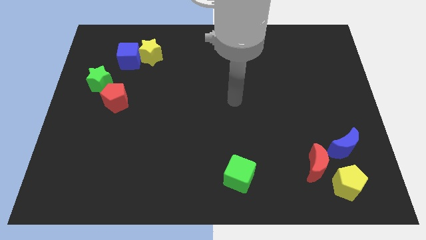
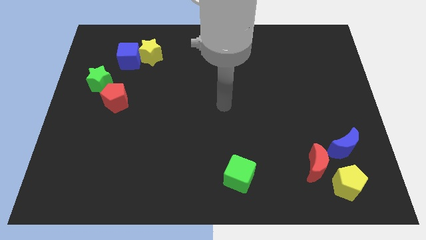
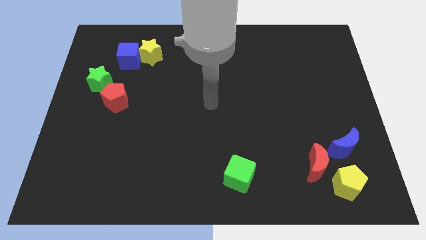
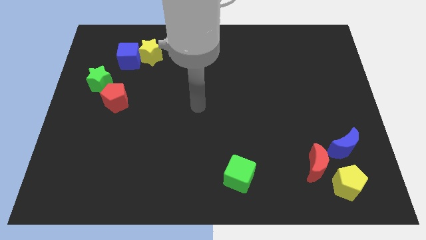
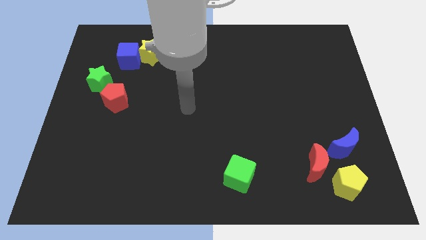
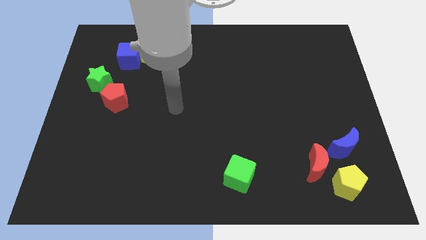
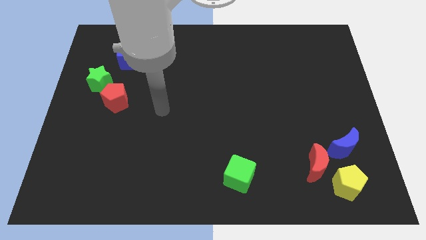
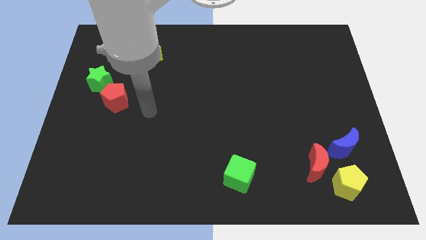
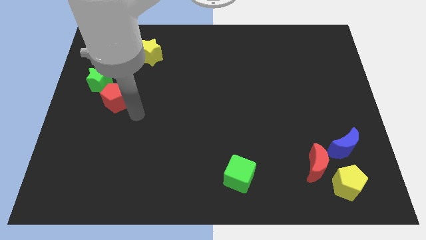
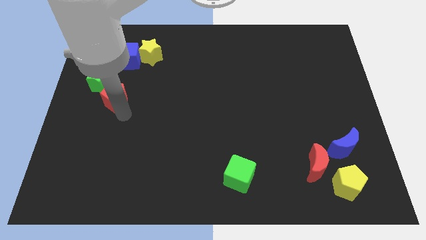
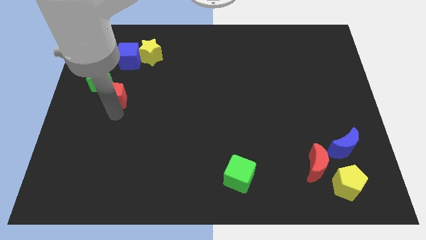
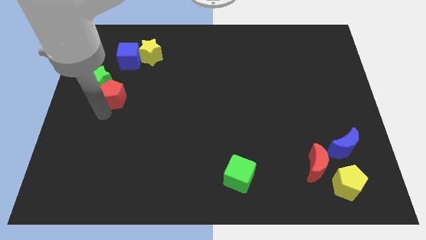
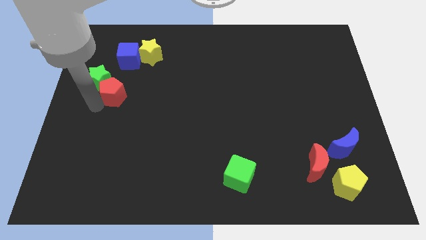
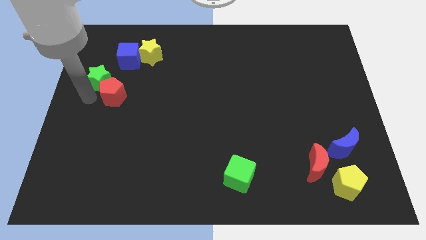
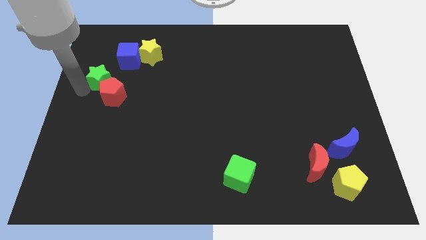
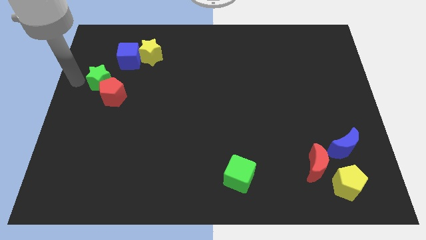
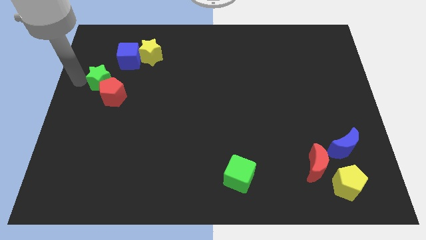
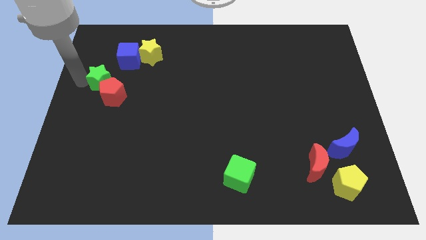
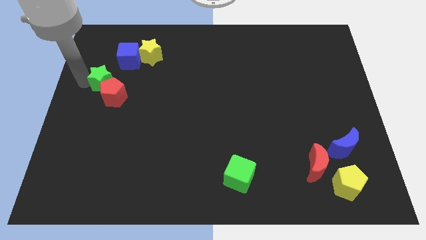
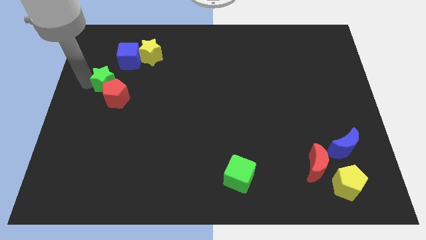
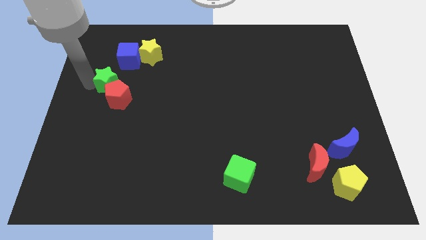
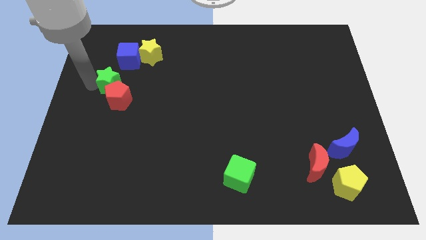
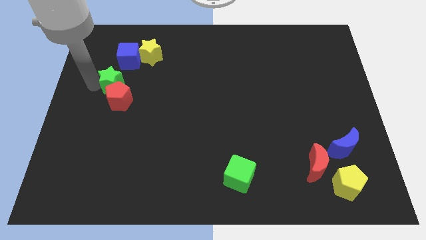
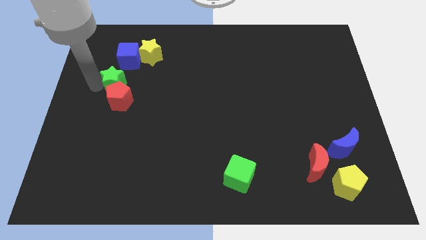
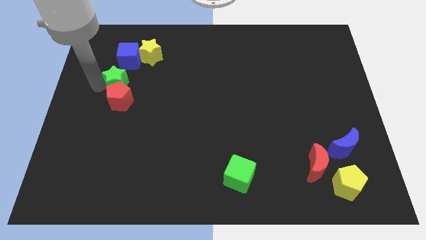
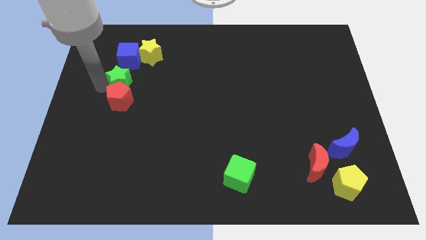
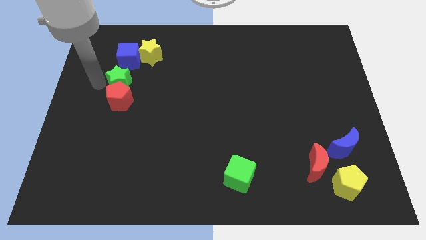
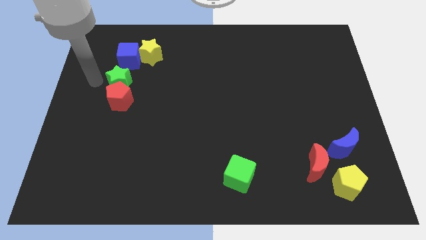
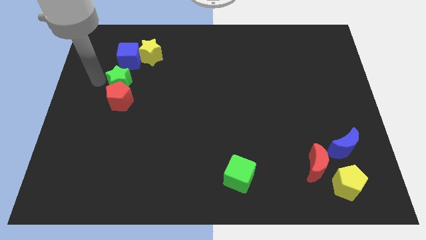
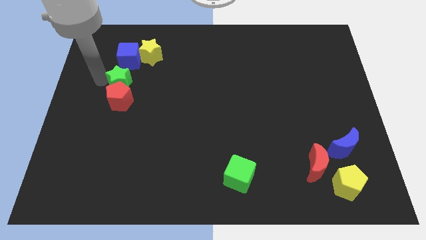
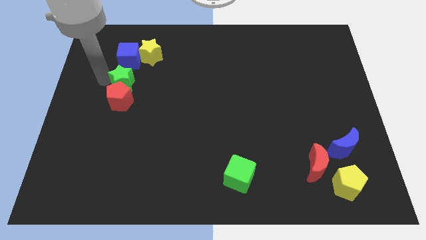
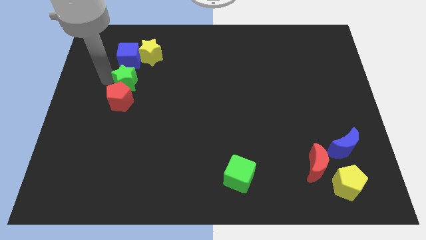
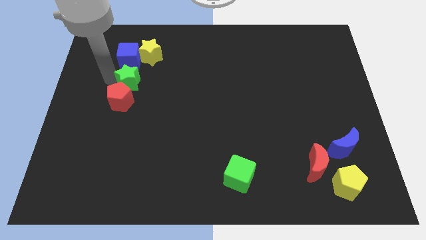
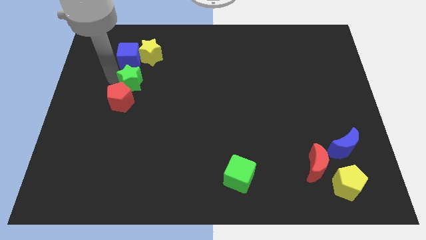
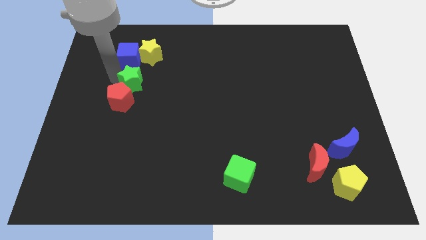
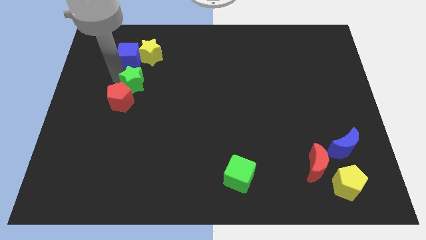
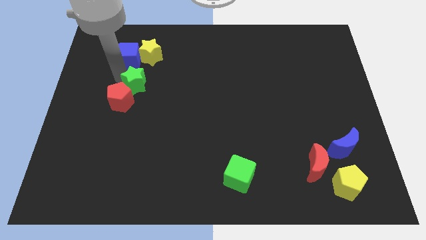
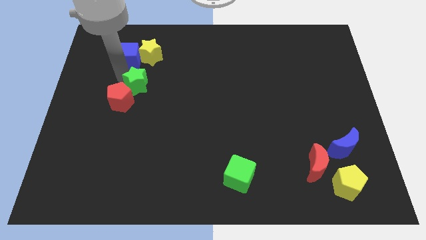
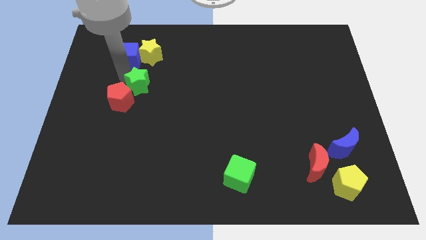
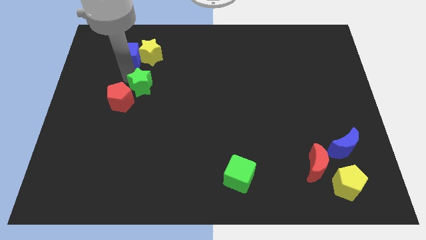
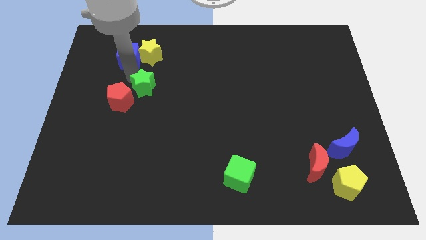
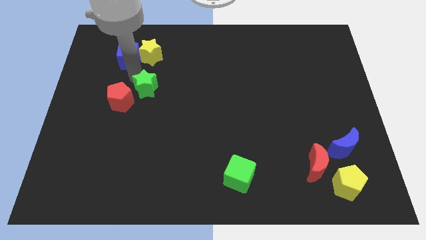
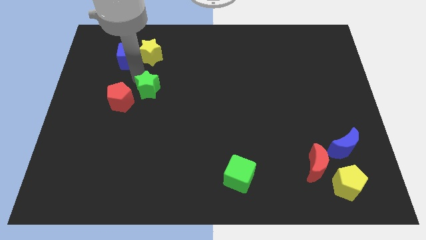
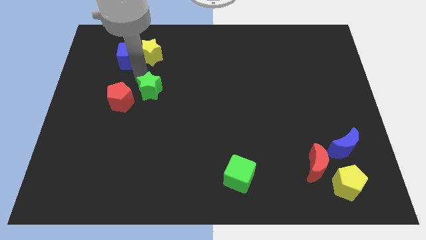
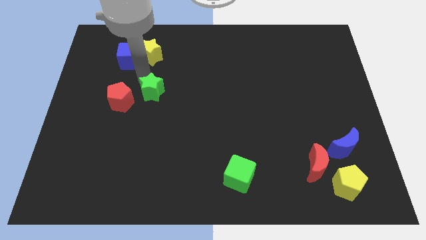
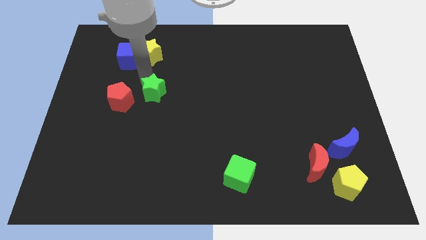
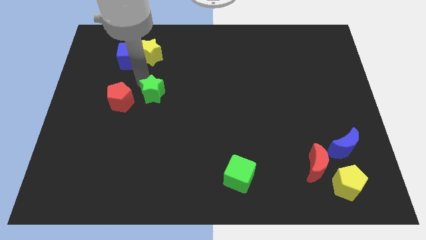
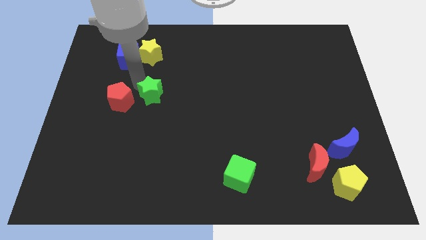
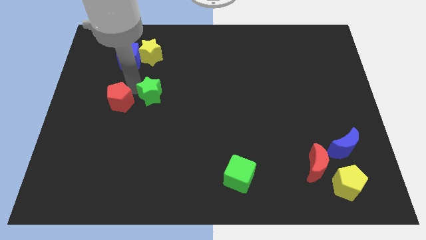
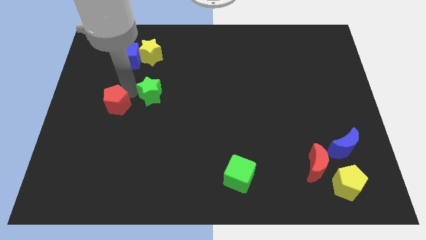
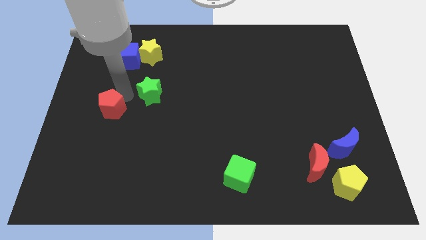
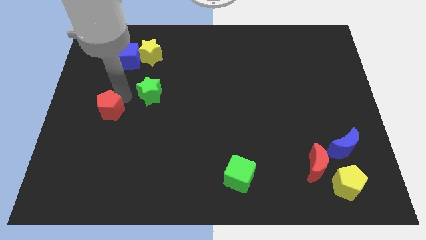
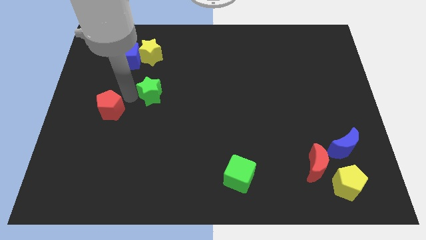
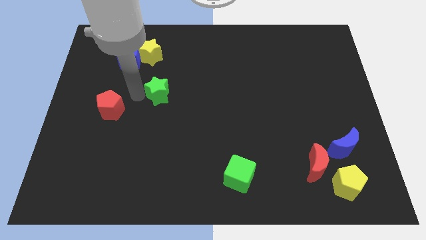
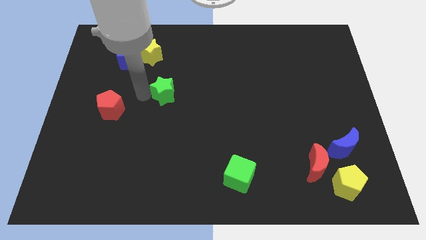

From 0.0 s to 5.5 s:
put the green star to the middle of the board

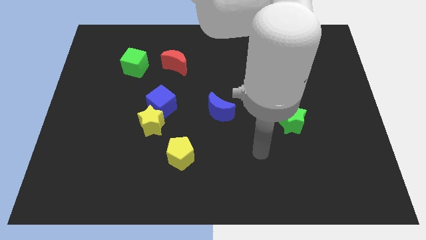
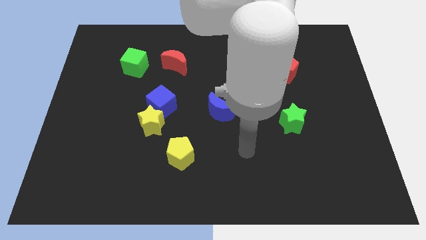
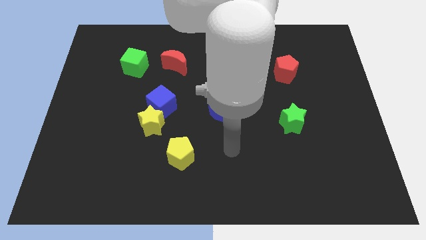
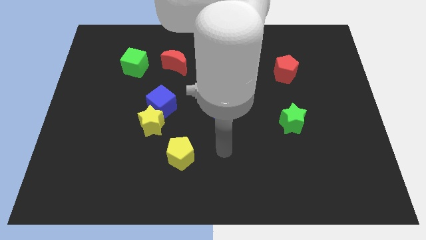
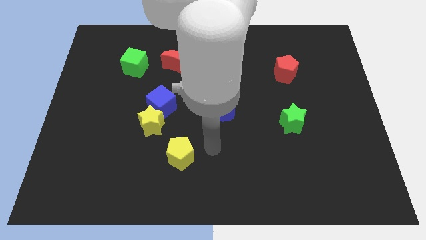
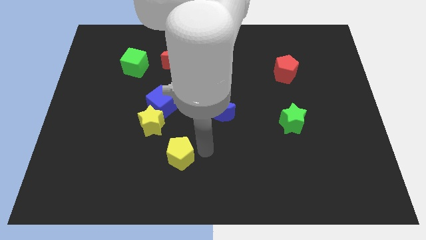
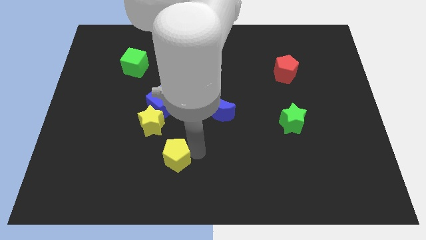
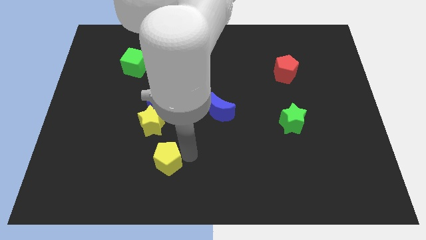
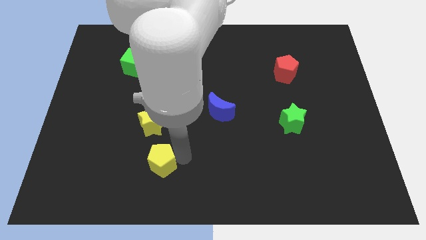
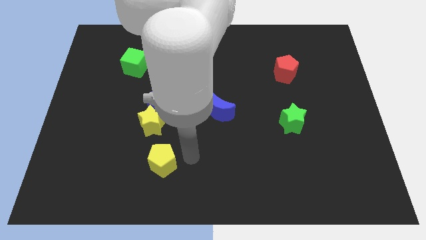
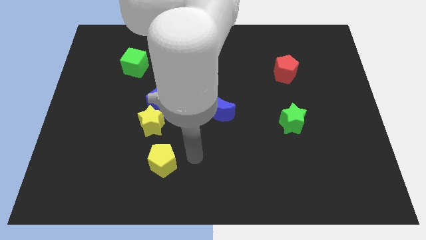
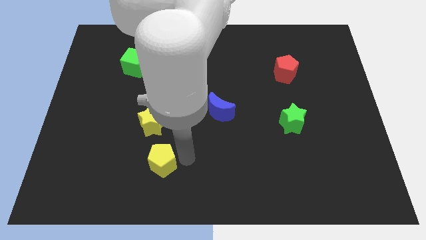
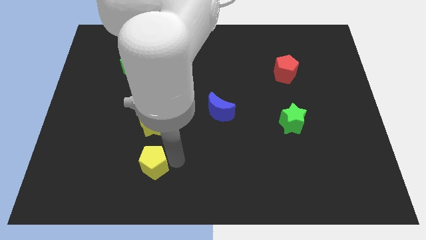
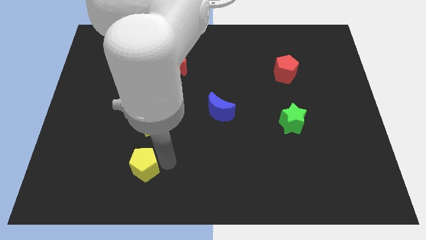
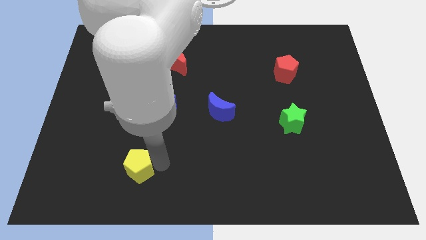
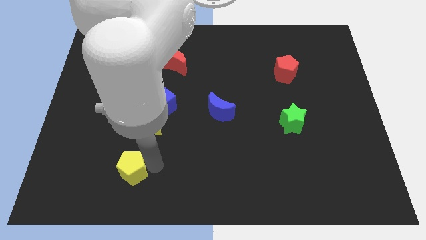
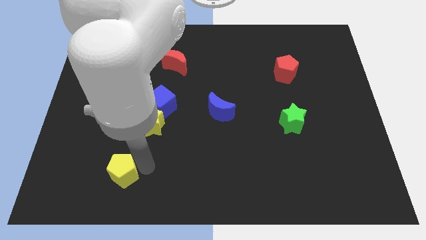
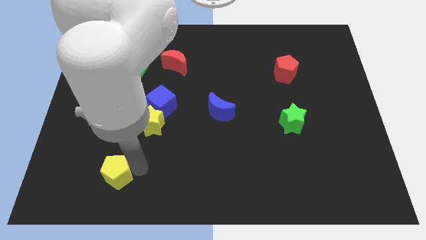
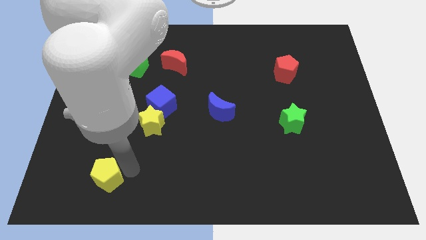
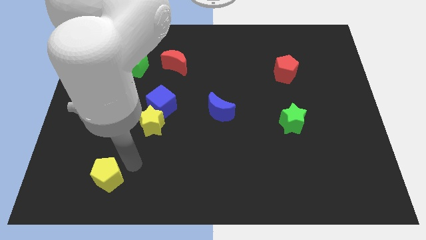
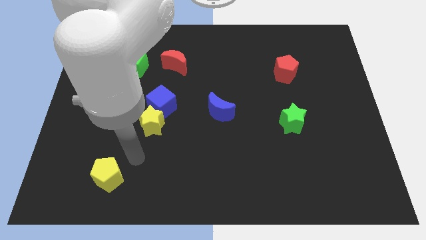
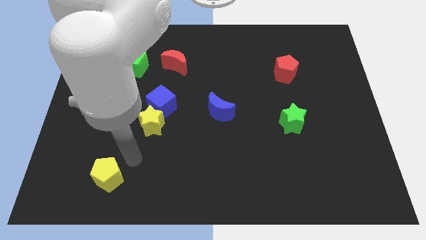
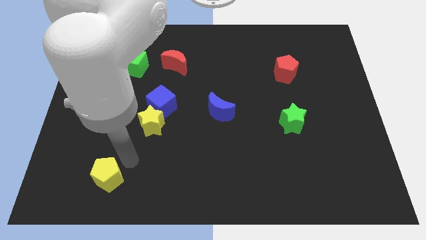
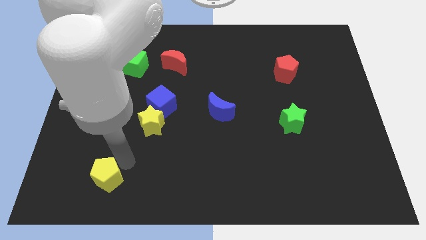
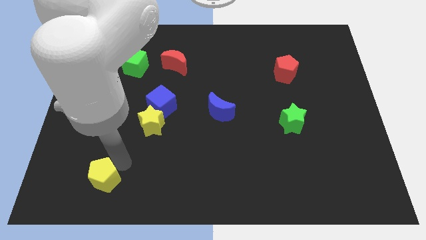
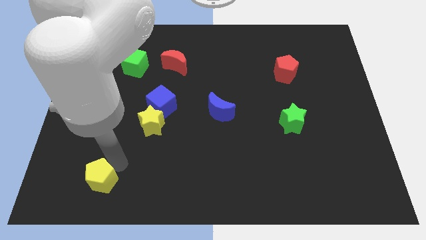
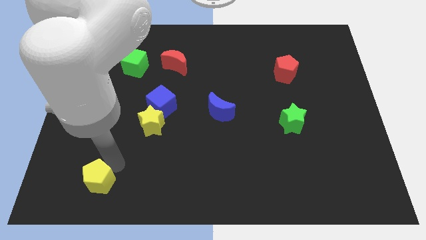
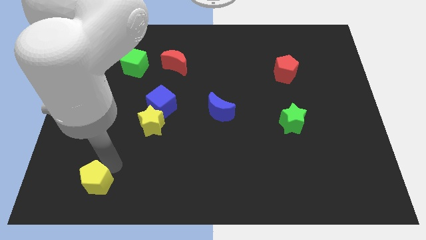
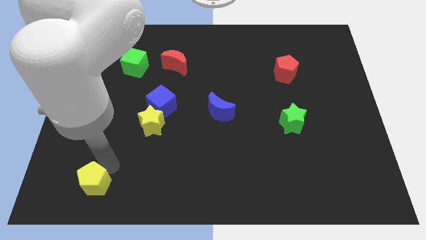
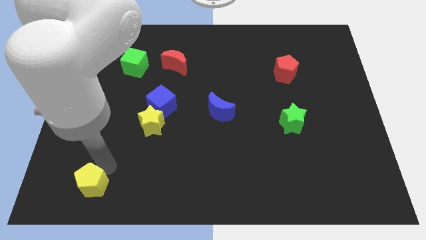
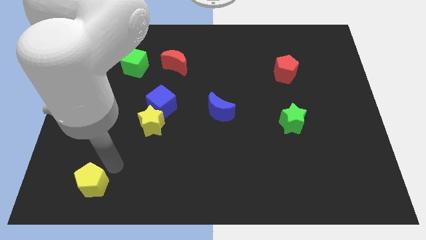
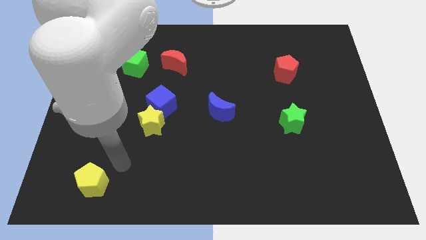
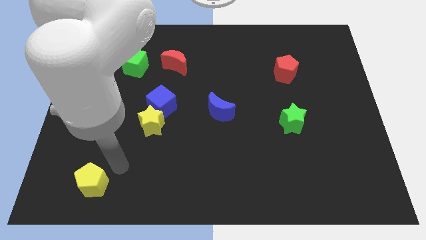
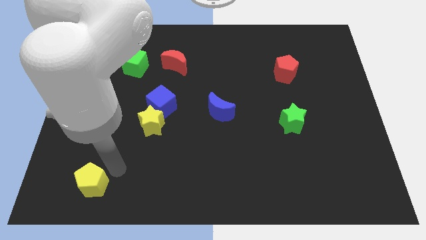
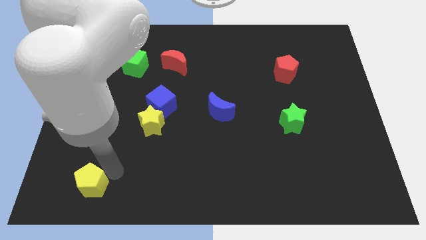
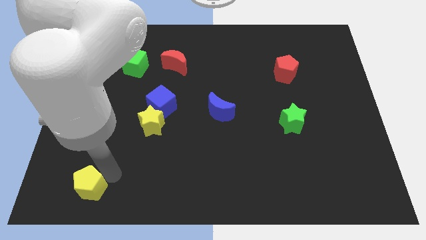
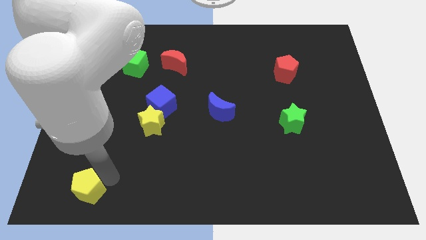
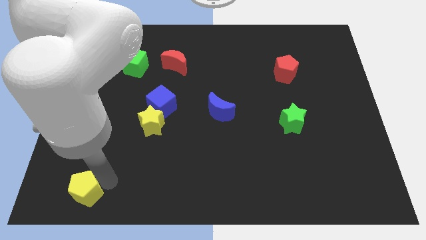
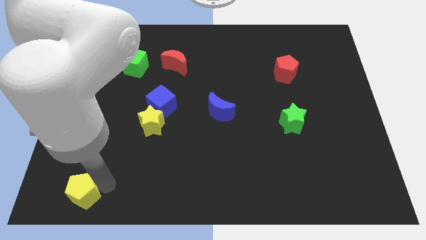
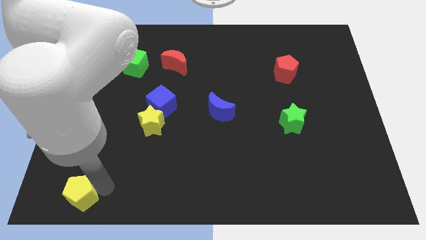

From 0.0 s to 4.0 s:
put the yellow pentagon to the bottom left of the board
